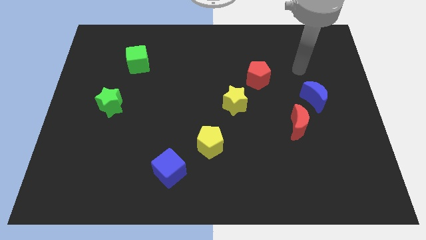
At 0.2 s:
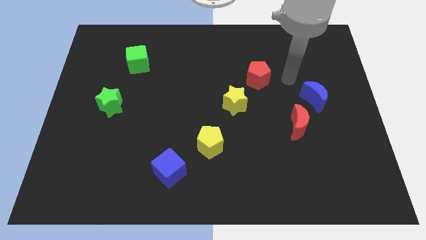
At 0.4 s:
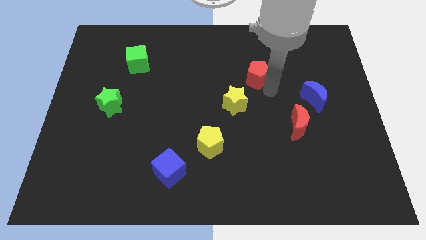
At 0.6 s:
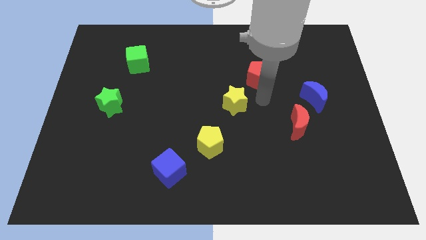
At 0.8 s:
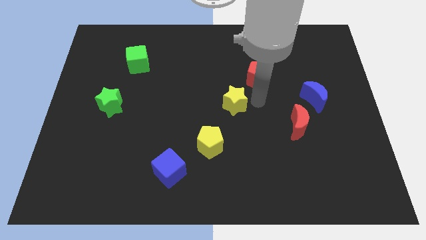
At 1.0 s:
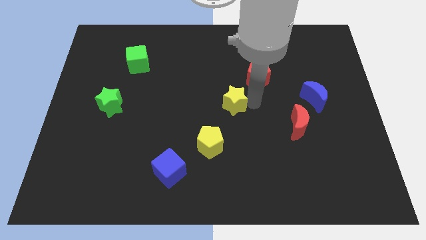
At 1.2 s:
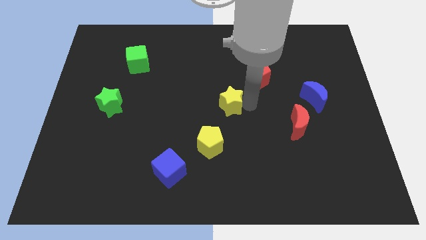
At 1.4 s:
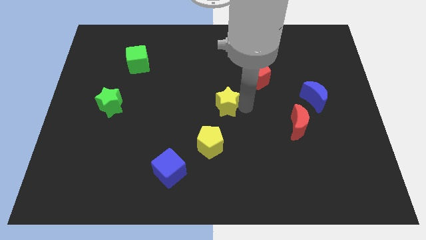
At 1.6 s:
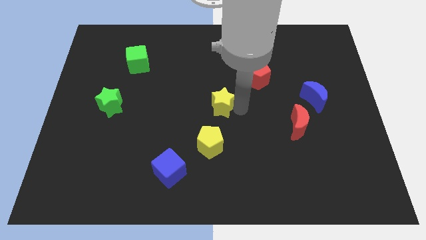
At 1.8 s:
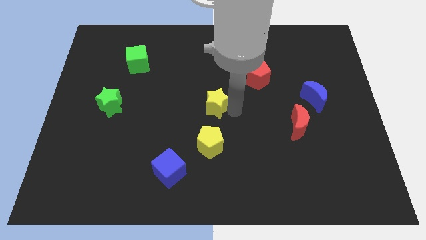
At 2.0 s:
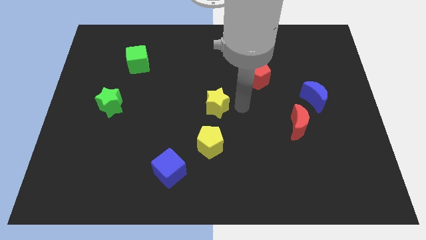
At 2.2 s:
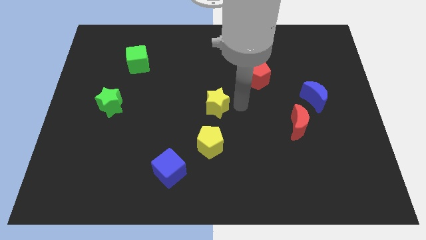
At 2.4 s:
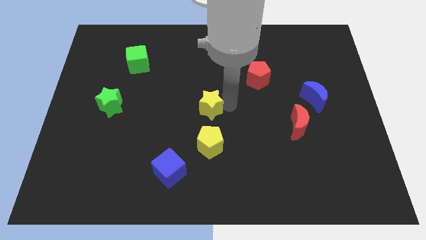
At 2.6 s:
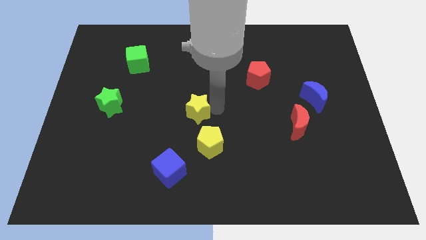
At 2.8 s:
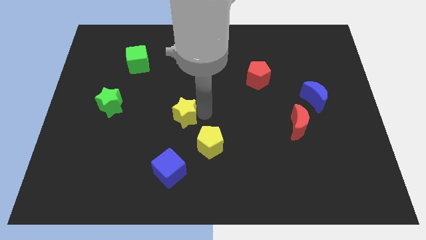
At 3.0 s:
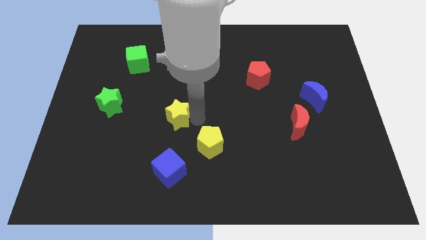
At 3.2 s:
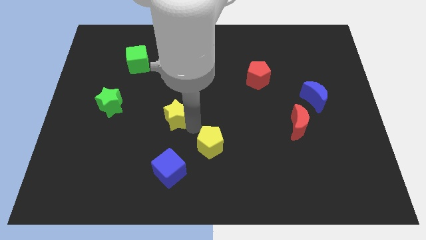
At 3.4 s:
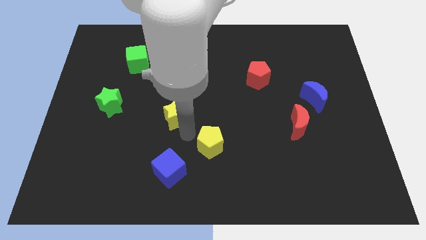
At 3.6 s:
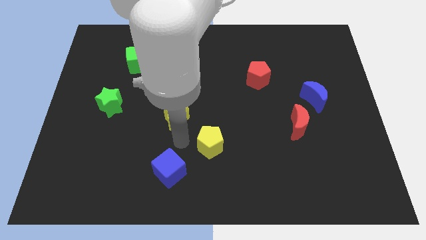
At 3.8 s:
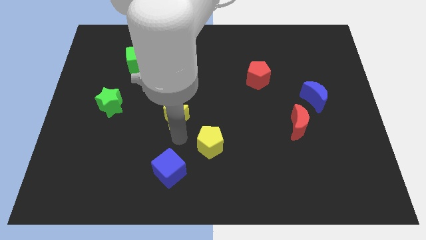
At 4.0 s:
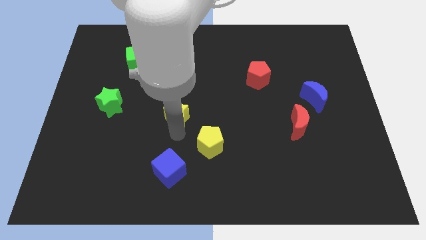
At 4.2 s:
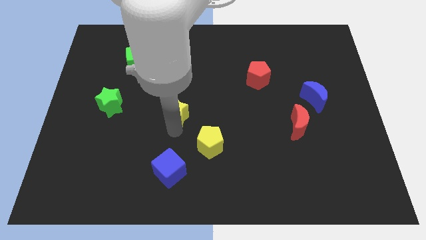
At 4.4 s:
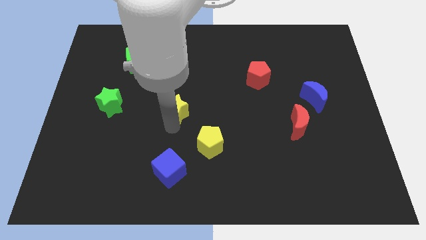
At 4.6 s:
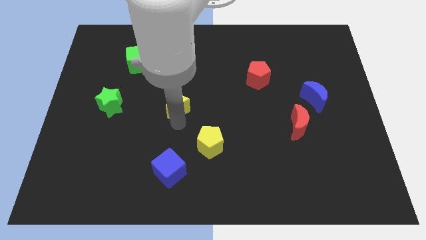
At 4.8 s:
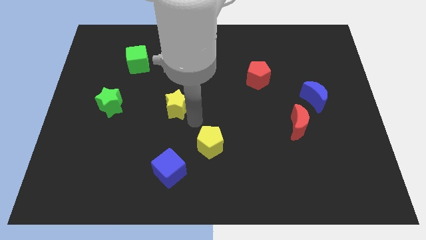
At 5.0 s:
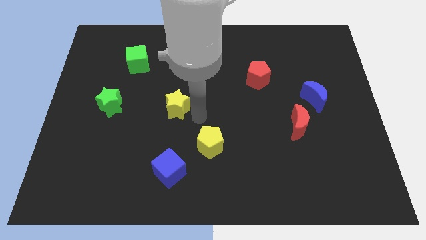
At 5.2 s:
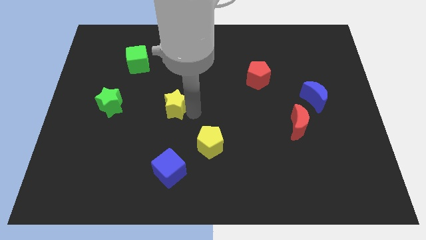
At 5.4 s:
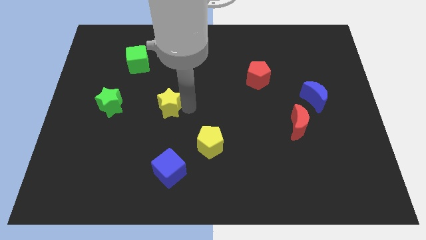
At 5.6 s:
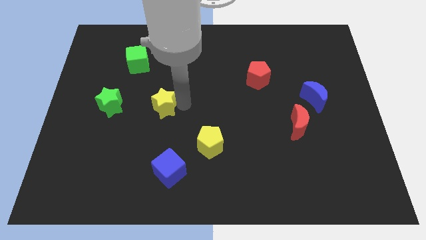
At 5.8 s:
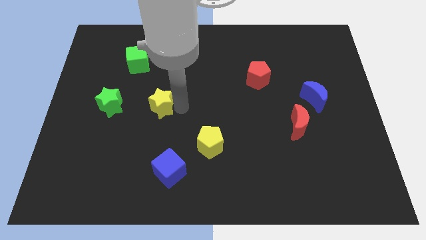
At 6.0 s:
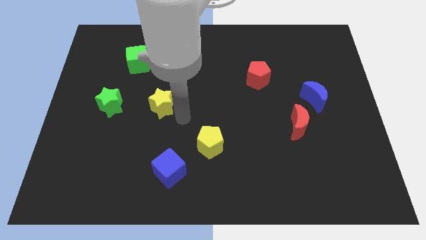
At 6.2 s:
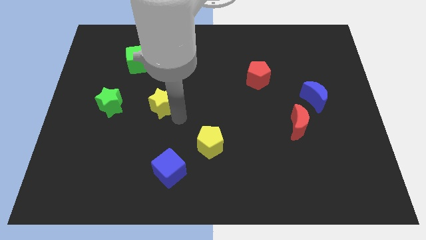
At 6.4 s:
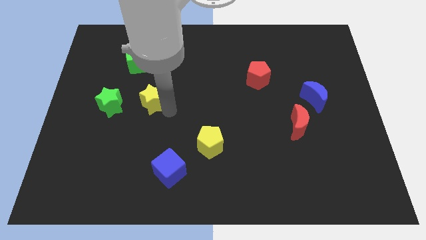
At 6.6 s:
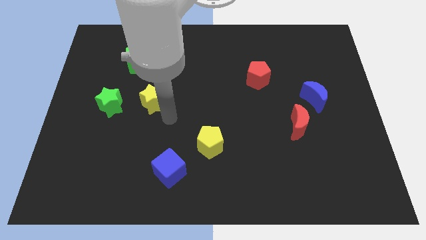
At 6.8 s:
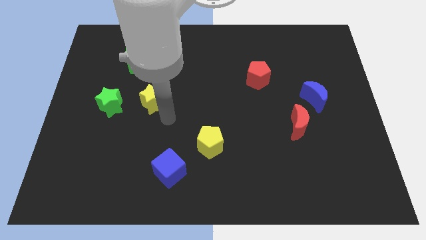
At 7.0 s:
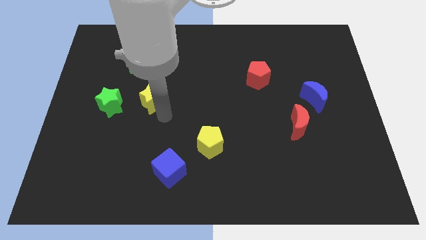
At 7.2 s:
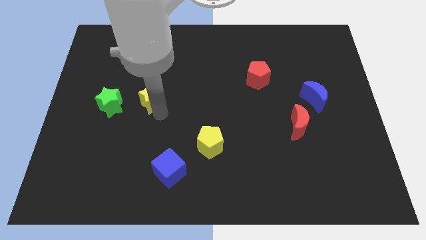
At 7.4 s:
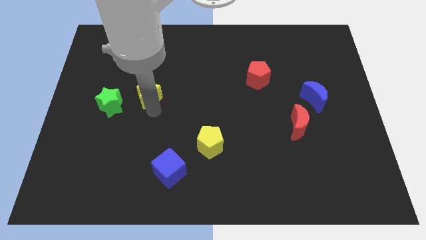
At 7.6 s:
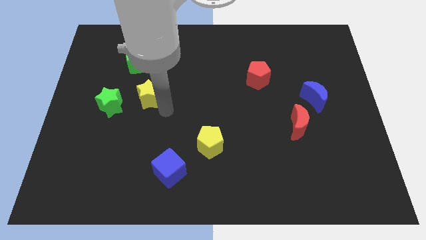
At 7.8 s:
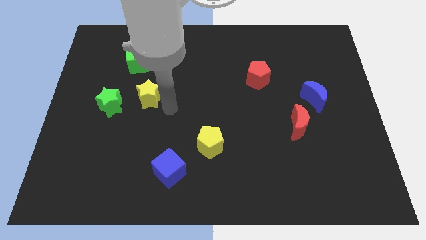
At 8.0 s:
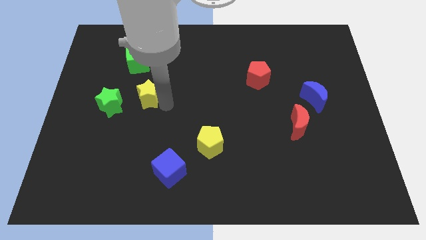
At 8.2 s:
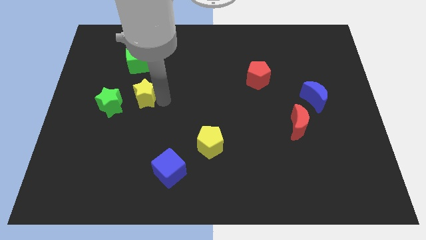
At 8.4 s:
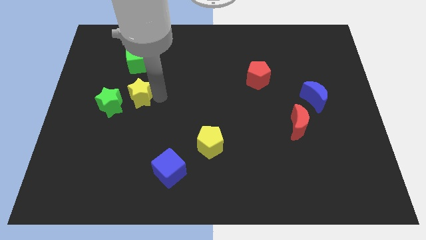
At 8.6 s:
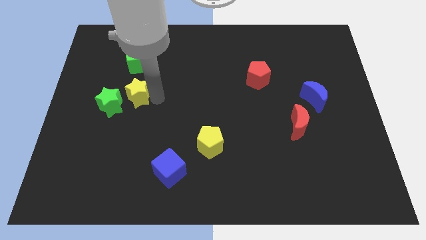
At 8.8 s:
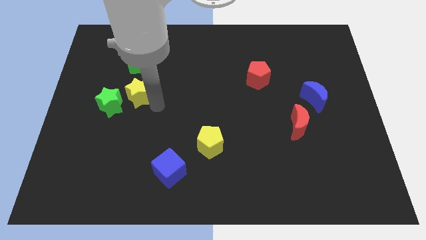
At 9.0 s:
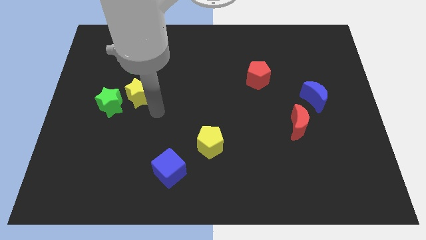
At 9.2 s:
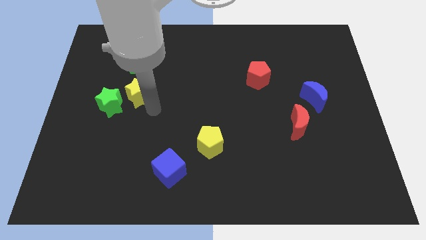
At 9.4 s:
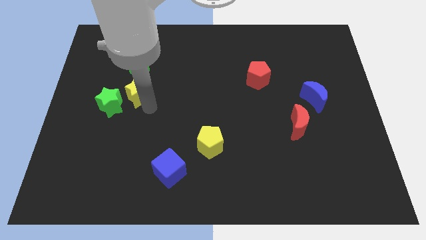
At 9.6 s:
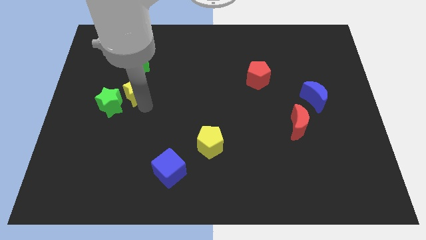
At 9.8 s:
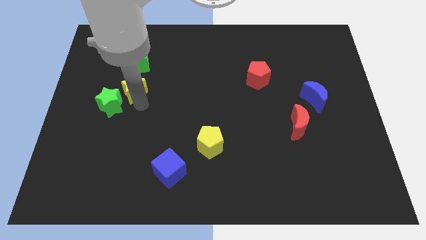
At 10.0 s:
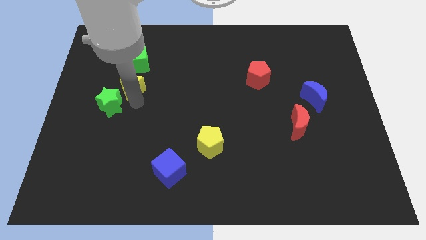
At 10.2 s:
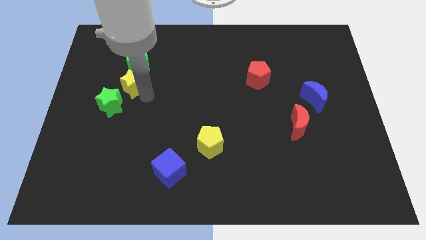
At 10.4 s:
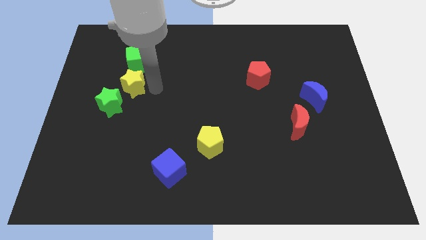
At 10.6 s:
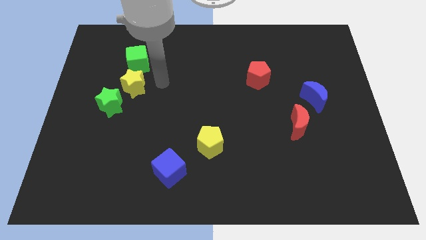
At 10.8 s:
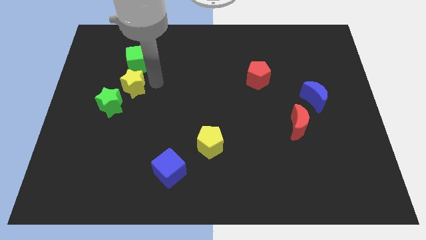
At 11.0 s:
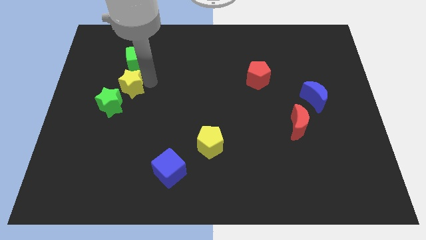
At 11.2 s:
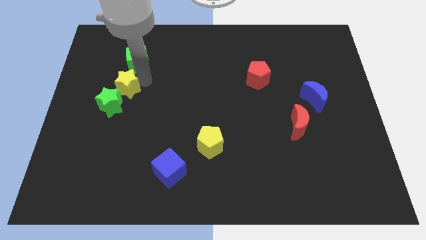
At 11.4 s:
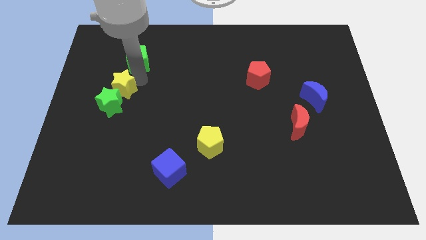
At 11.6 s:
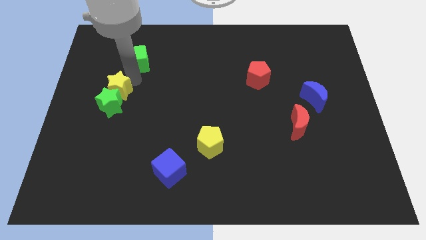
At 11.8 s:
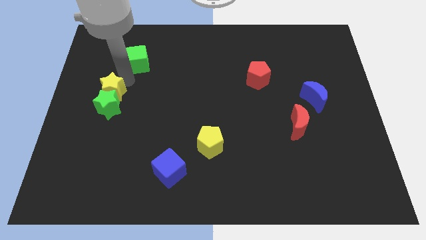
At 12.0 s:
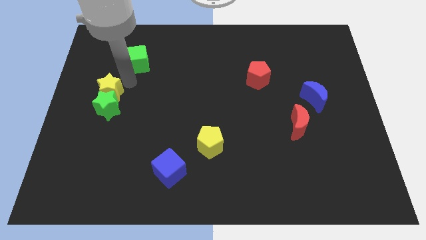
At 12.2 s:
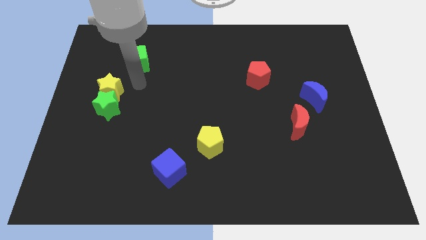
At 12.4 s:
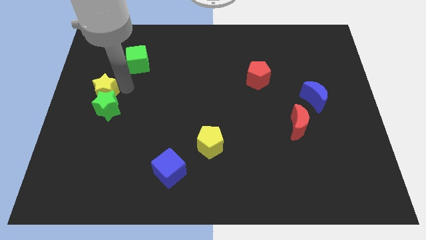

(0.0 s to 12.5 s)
push the yellow star to the center left
